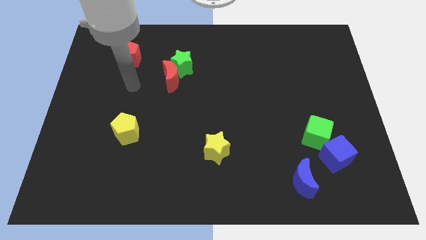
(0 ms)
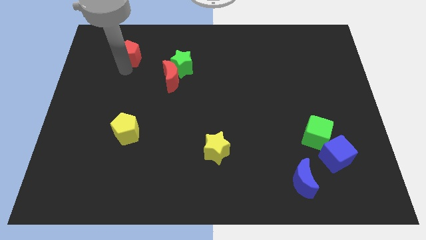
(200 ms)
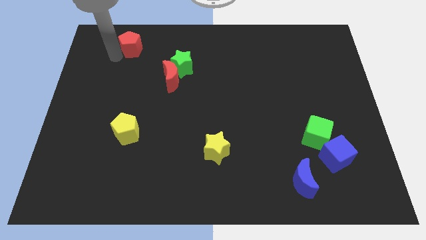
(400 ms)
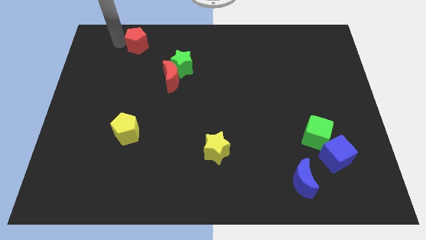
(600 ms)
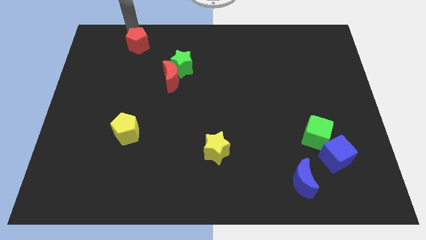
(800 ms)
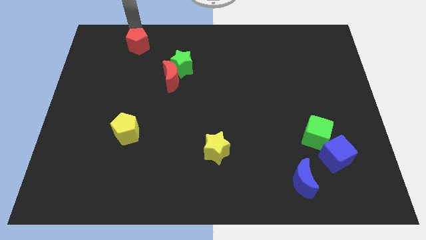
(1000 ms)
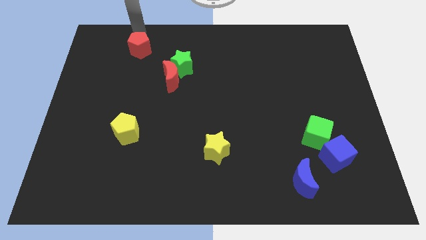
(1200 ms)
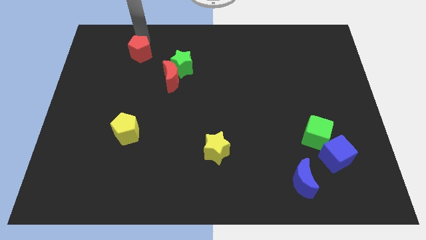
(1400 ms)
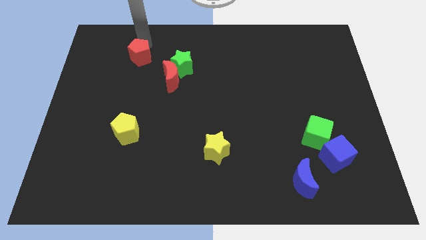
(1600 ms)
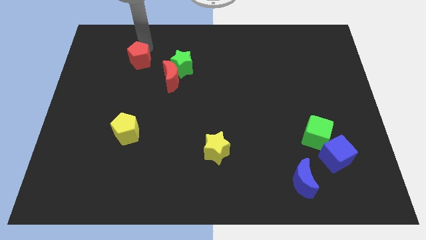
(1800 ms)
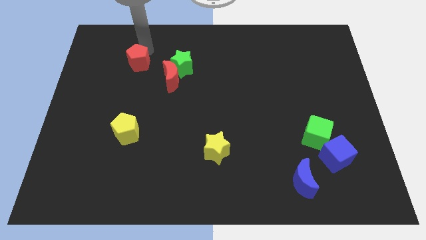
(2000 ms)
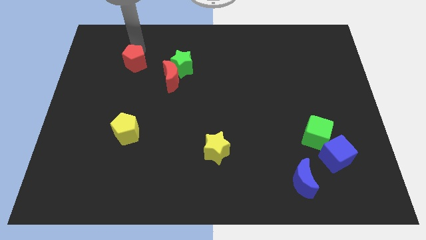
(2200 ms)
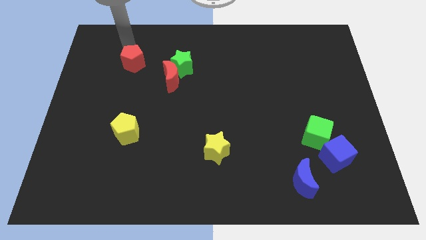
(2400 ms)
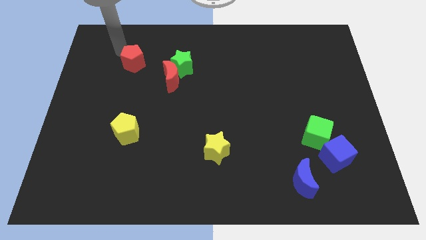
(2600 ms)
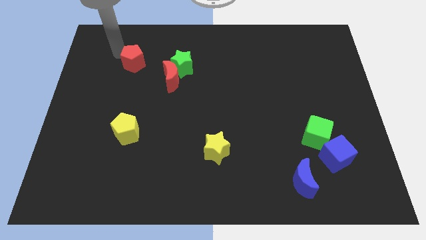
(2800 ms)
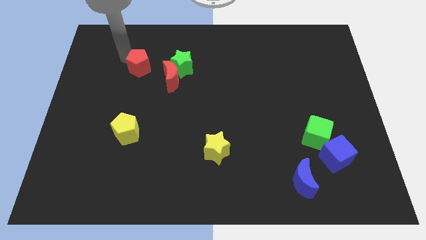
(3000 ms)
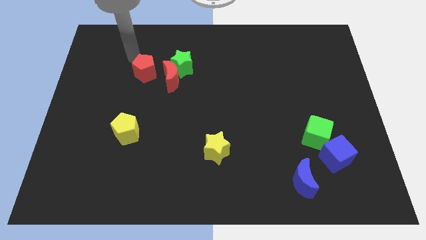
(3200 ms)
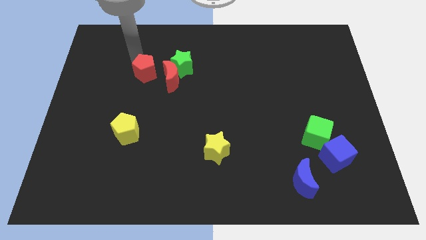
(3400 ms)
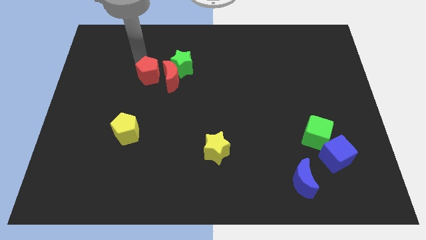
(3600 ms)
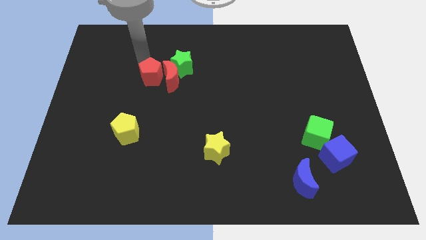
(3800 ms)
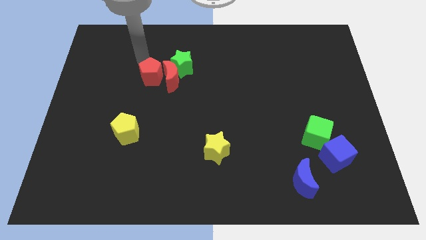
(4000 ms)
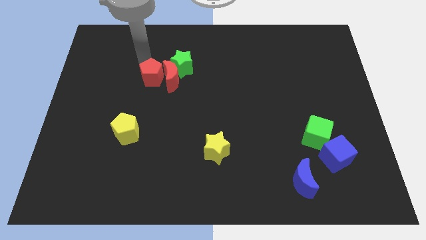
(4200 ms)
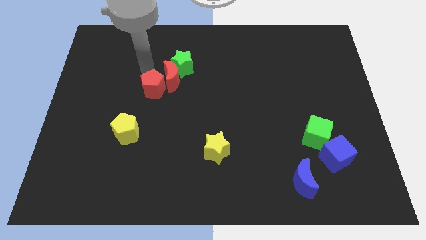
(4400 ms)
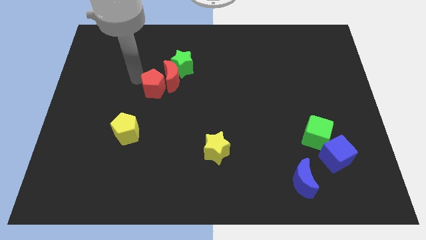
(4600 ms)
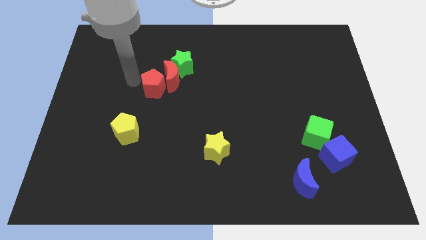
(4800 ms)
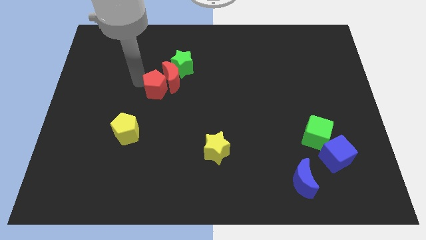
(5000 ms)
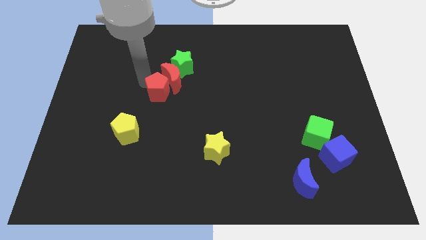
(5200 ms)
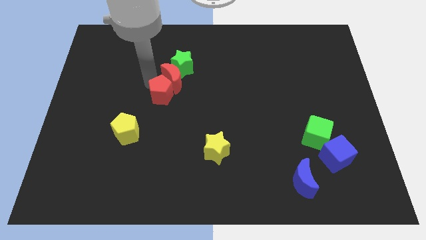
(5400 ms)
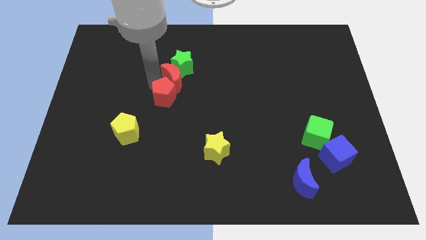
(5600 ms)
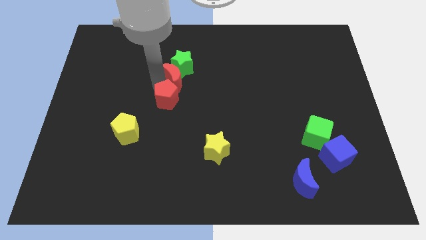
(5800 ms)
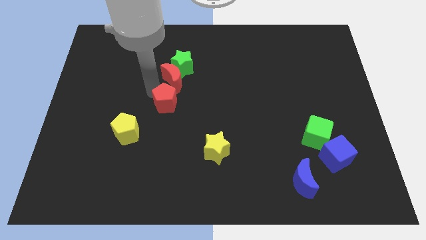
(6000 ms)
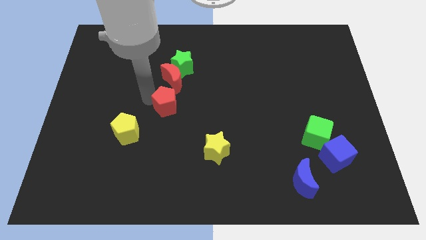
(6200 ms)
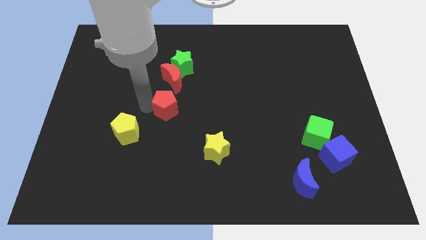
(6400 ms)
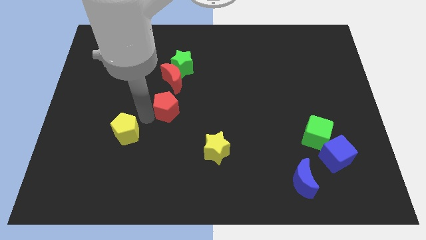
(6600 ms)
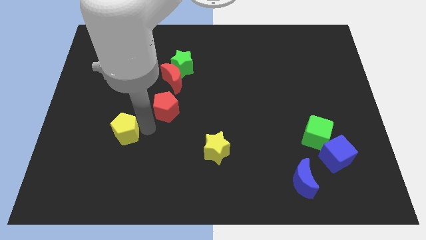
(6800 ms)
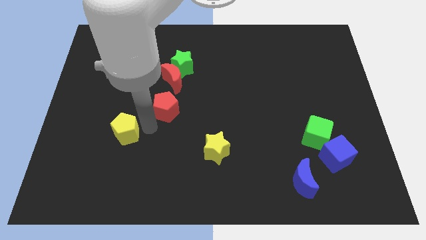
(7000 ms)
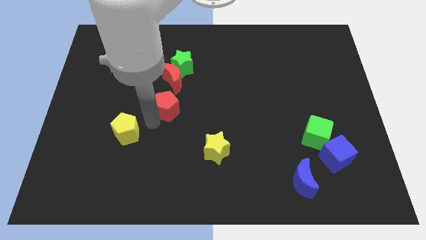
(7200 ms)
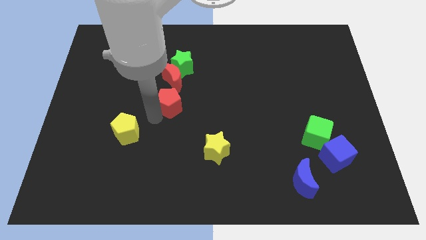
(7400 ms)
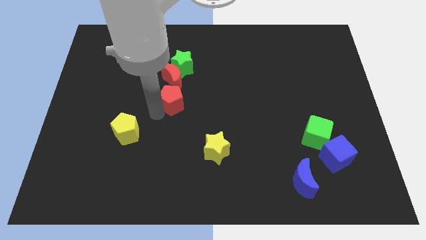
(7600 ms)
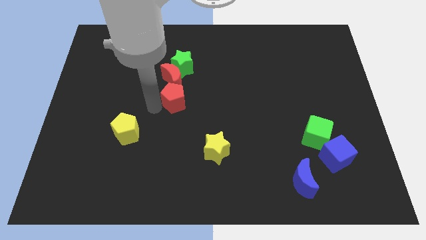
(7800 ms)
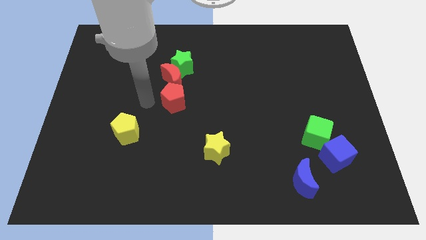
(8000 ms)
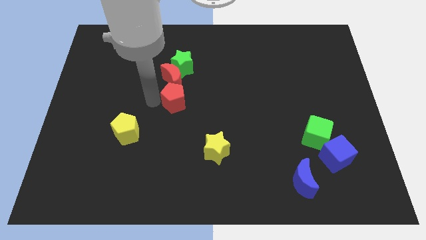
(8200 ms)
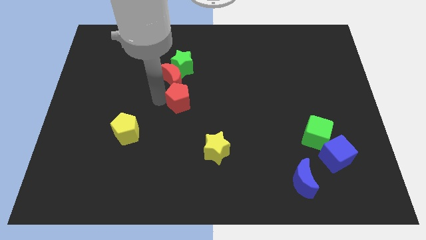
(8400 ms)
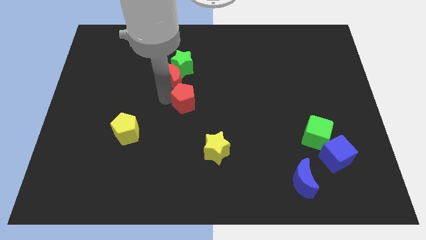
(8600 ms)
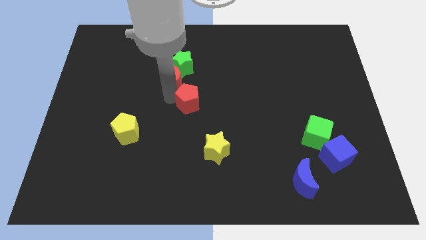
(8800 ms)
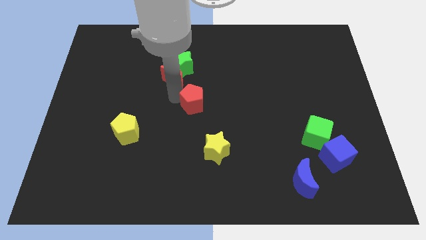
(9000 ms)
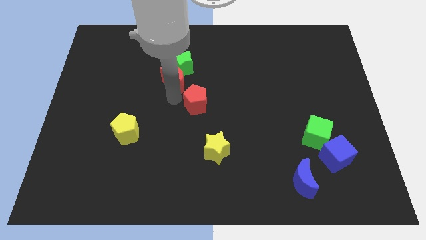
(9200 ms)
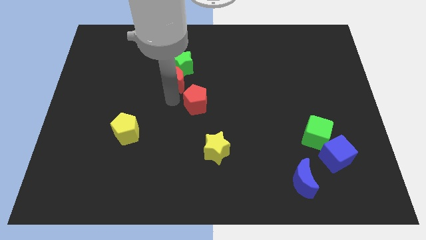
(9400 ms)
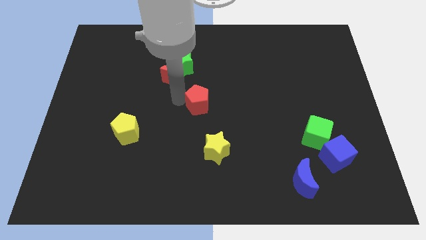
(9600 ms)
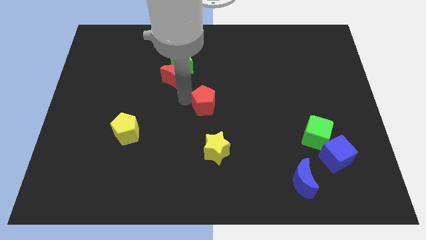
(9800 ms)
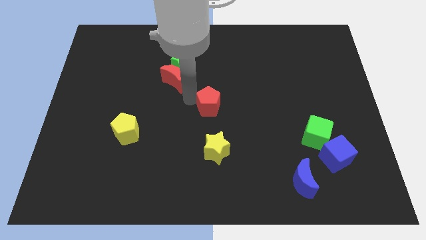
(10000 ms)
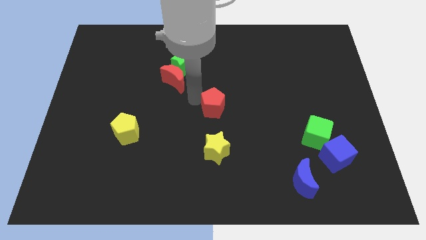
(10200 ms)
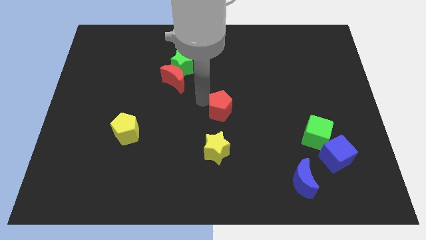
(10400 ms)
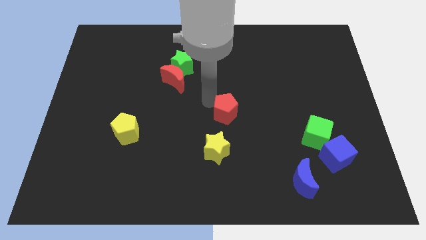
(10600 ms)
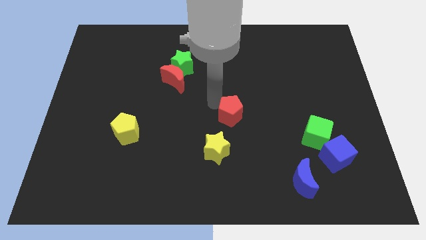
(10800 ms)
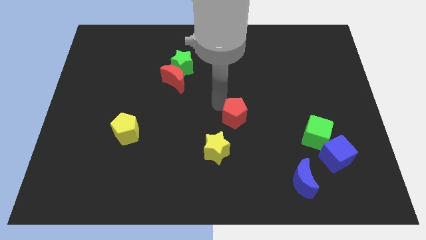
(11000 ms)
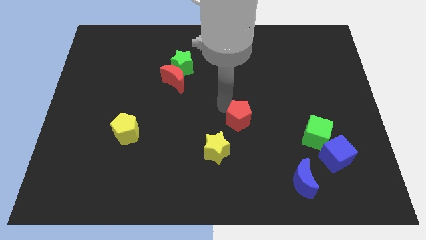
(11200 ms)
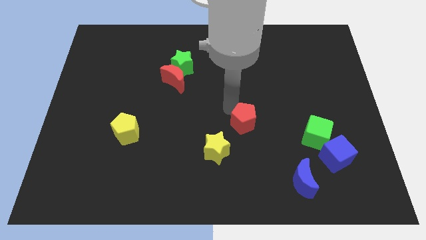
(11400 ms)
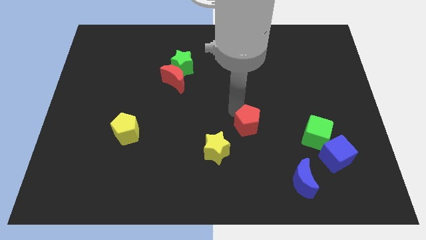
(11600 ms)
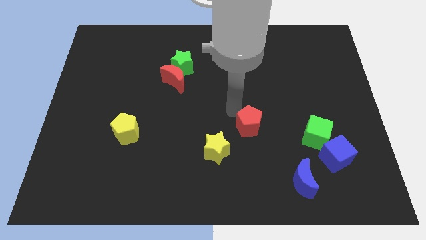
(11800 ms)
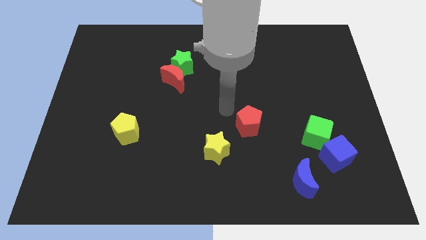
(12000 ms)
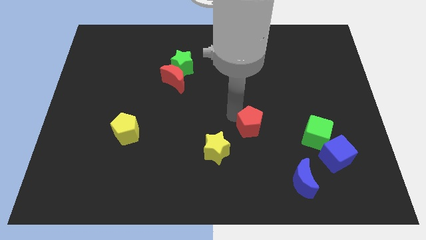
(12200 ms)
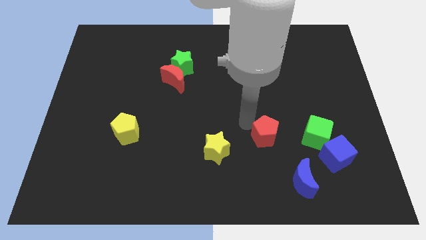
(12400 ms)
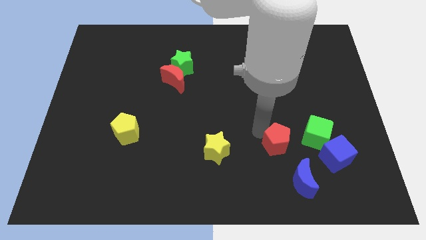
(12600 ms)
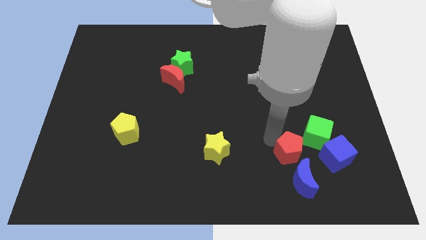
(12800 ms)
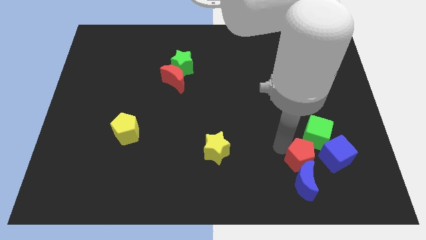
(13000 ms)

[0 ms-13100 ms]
slide the red pentagon below the green cube

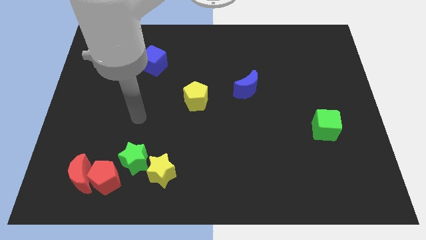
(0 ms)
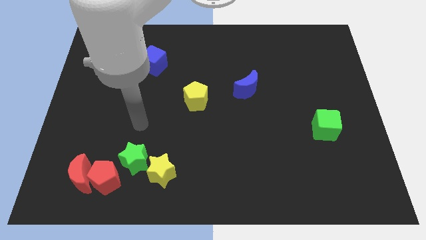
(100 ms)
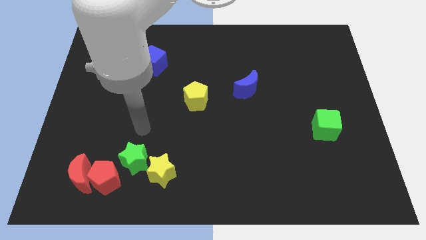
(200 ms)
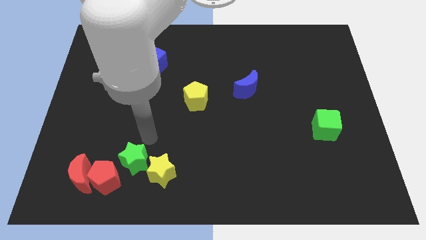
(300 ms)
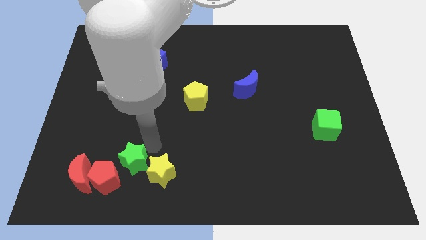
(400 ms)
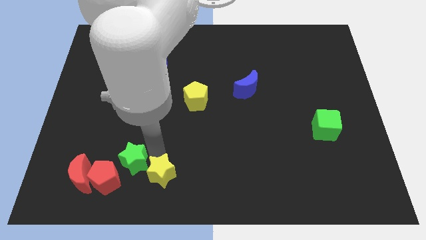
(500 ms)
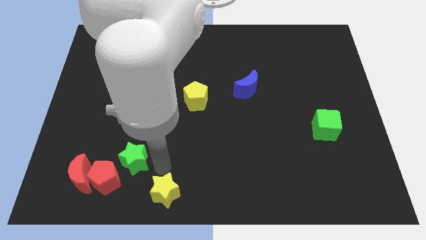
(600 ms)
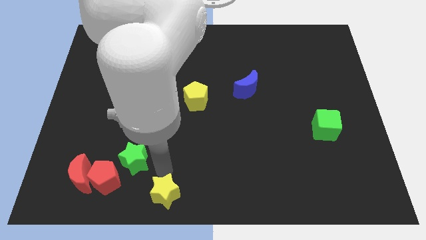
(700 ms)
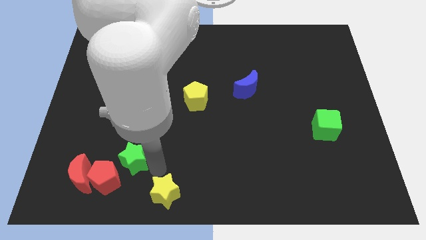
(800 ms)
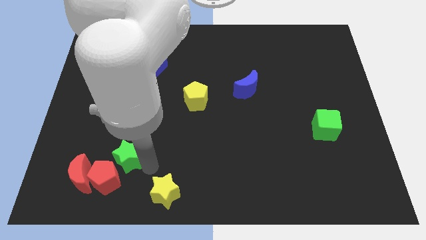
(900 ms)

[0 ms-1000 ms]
push the green star to the top right side of the red moon
